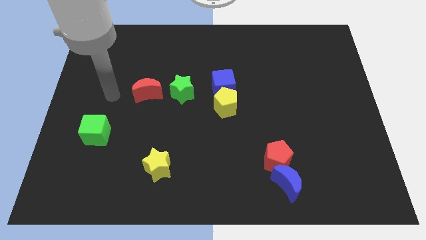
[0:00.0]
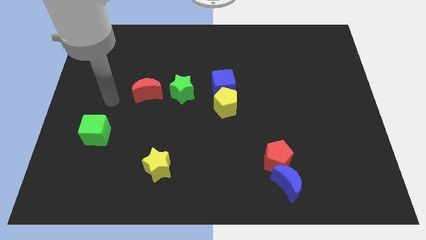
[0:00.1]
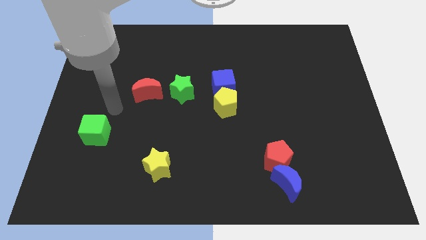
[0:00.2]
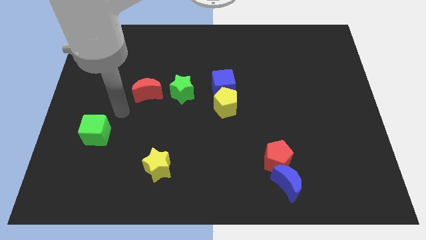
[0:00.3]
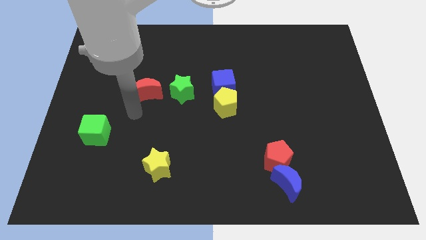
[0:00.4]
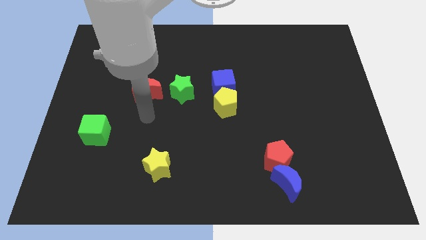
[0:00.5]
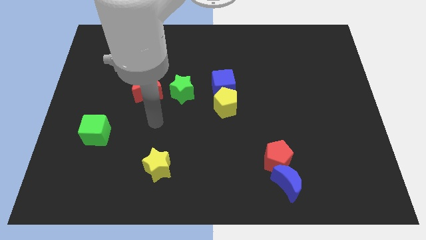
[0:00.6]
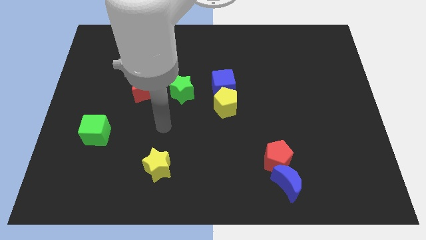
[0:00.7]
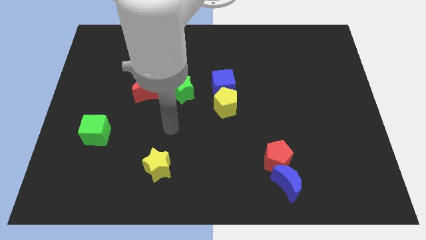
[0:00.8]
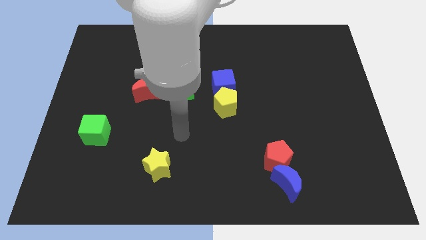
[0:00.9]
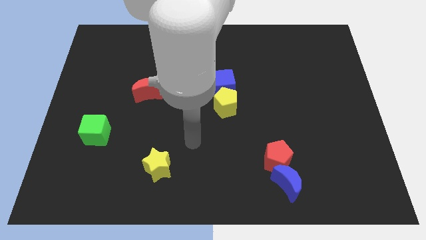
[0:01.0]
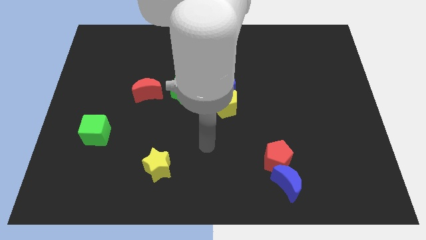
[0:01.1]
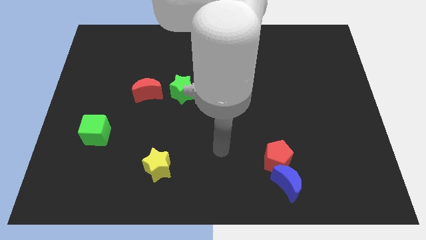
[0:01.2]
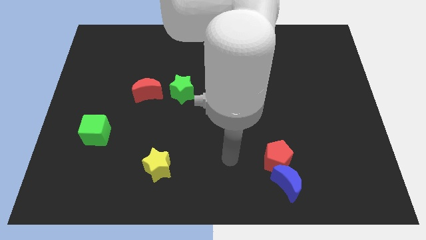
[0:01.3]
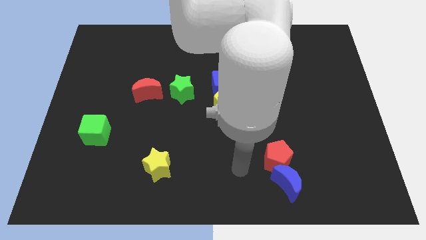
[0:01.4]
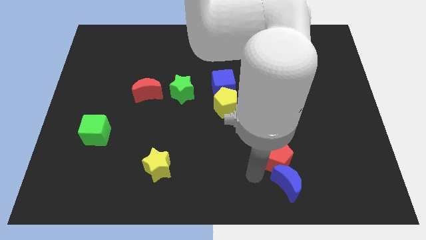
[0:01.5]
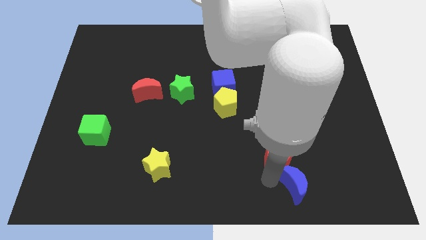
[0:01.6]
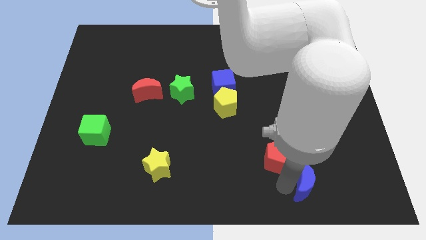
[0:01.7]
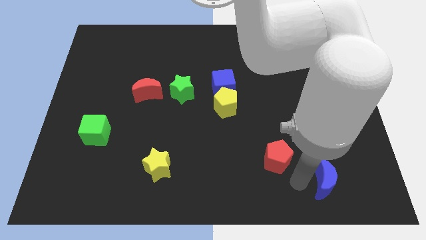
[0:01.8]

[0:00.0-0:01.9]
move the red pentagon away from the blue moon

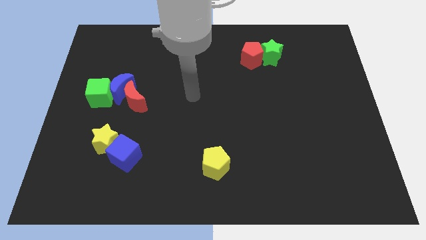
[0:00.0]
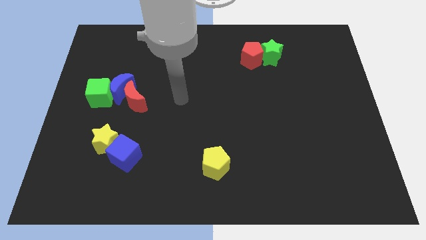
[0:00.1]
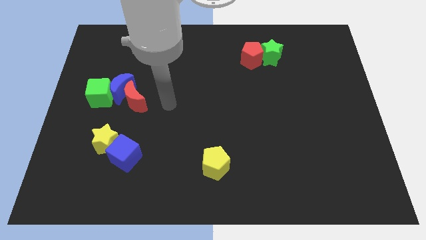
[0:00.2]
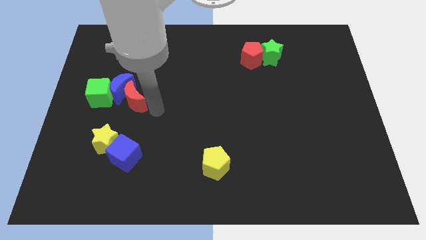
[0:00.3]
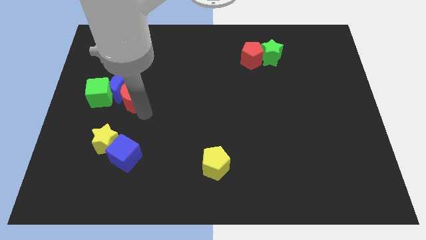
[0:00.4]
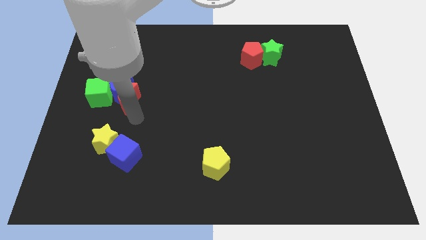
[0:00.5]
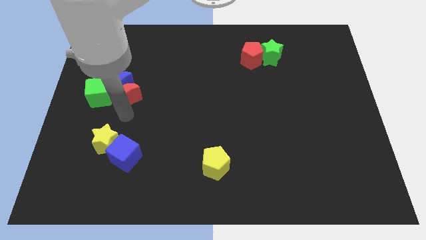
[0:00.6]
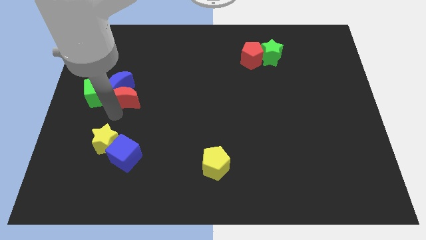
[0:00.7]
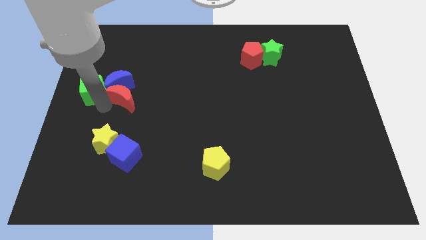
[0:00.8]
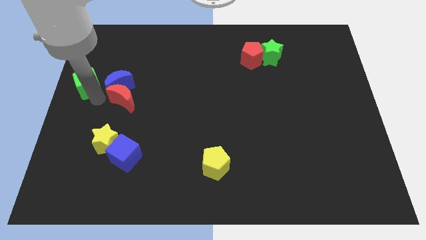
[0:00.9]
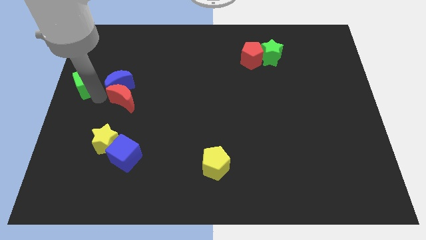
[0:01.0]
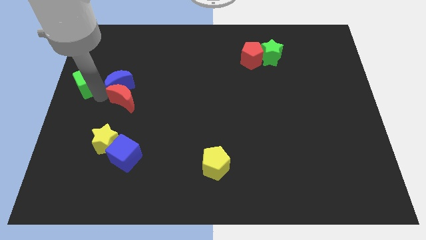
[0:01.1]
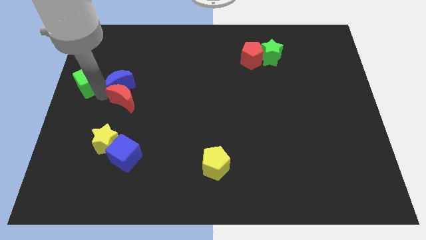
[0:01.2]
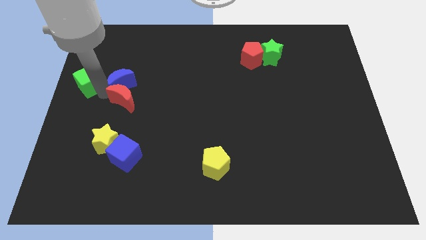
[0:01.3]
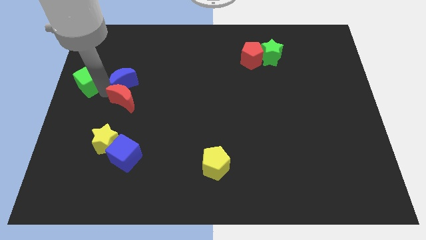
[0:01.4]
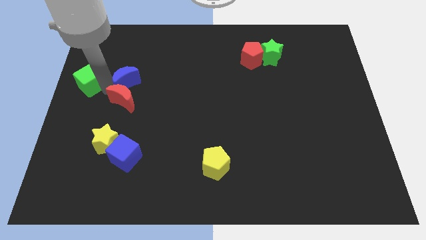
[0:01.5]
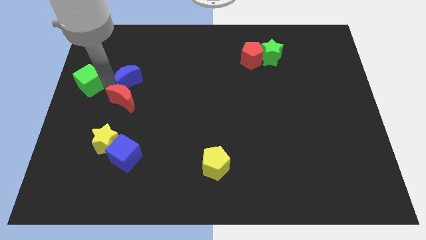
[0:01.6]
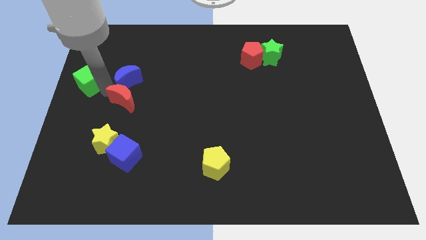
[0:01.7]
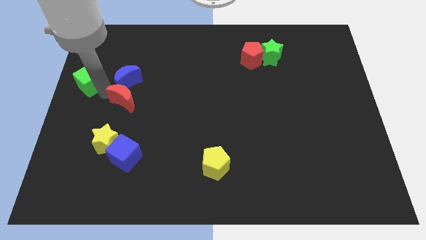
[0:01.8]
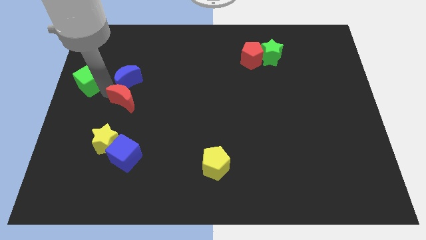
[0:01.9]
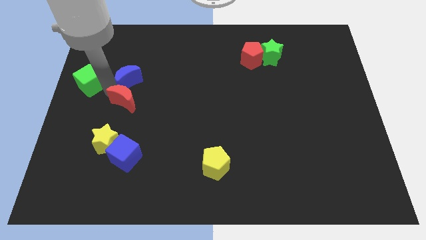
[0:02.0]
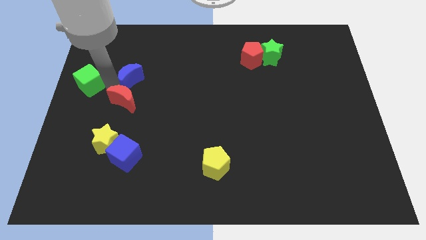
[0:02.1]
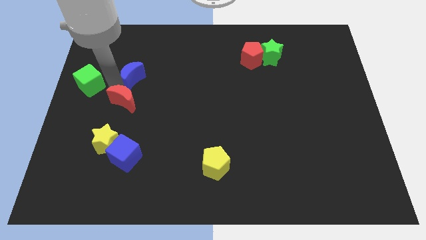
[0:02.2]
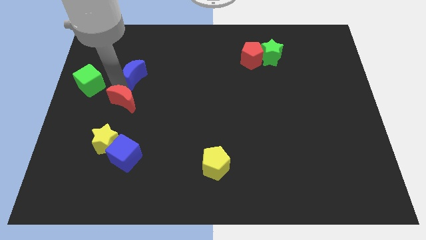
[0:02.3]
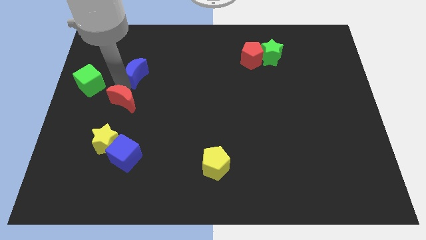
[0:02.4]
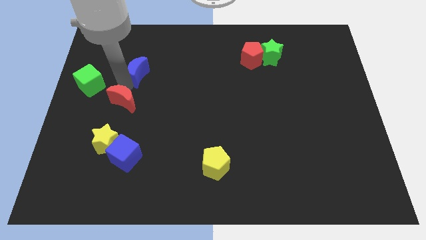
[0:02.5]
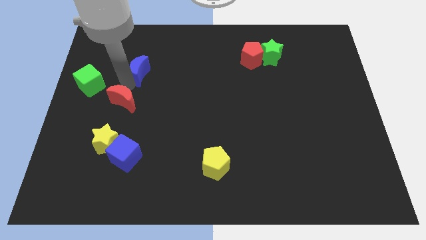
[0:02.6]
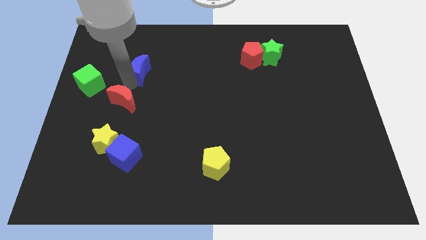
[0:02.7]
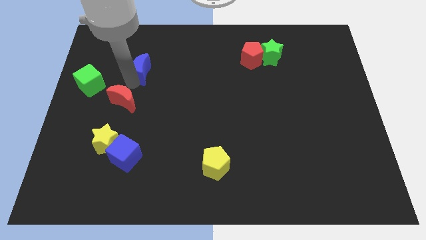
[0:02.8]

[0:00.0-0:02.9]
separate the blue moon from the red moon and green cube

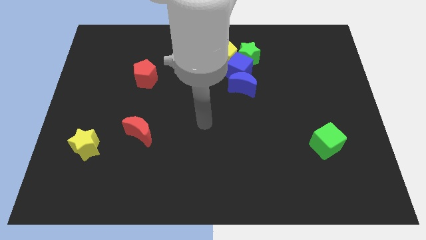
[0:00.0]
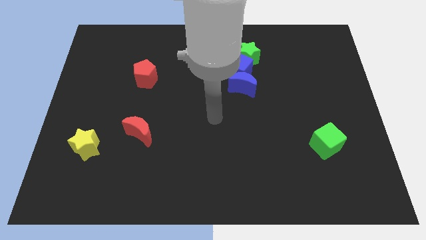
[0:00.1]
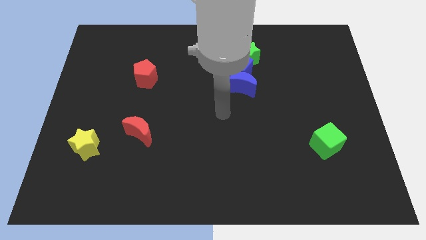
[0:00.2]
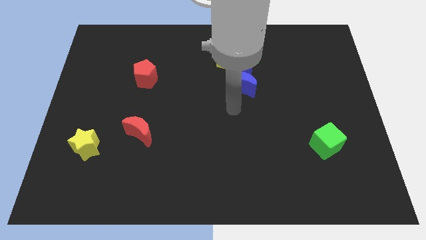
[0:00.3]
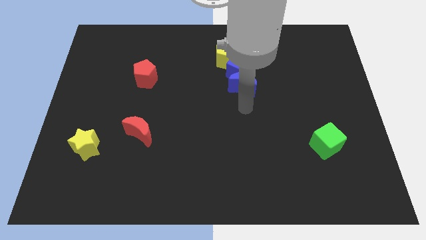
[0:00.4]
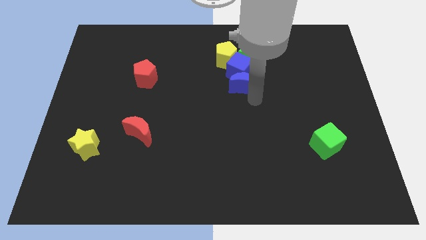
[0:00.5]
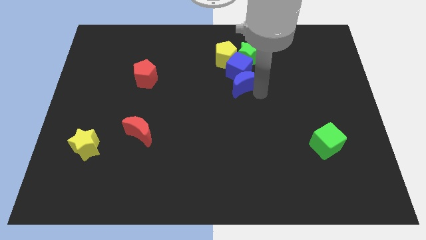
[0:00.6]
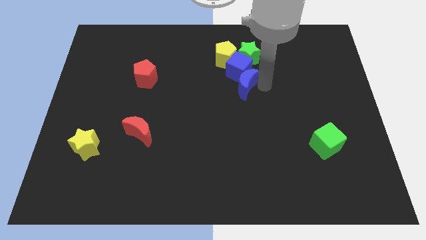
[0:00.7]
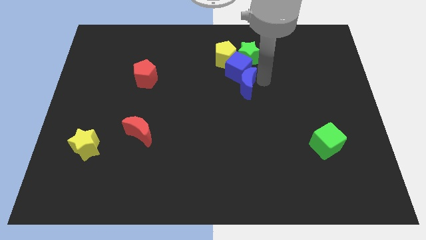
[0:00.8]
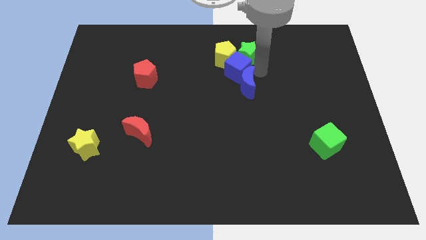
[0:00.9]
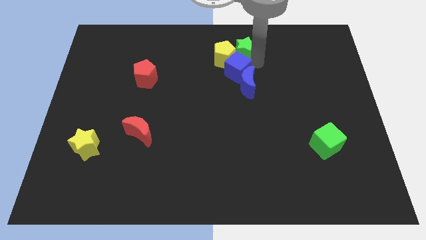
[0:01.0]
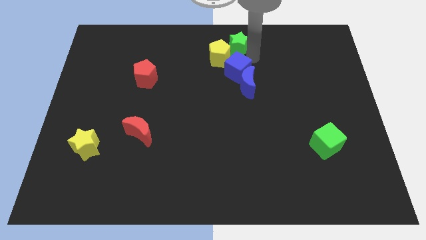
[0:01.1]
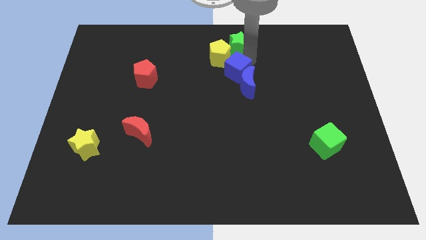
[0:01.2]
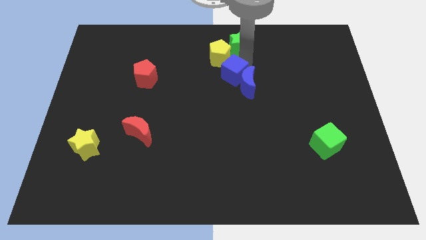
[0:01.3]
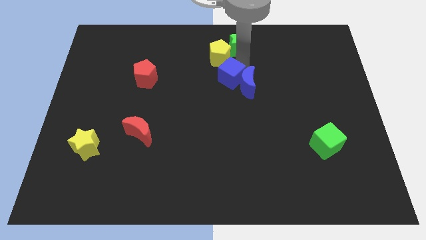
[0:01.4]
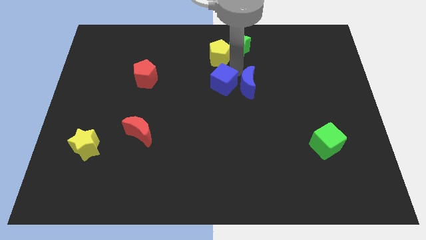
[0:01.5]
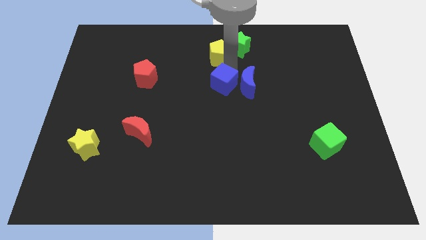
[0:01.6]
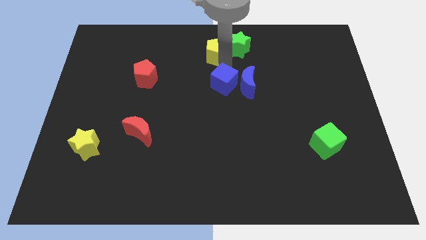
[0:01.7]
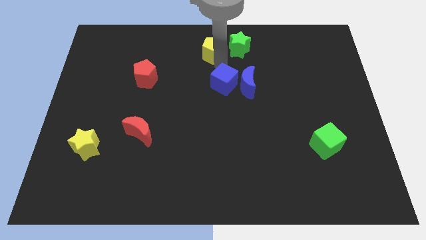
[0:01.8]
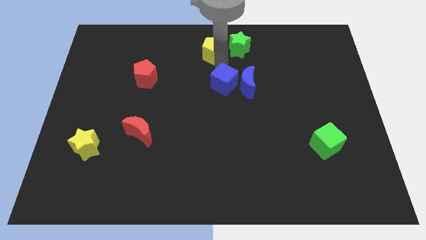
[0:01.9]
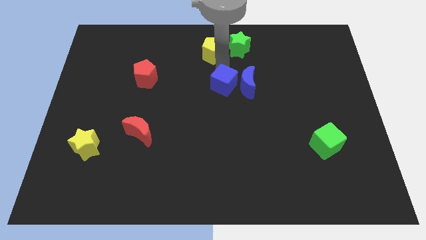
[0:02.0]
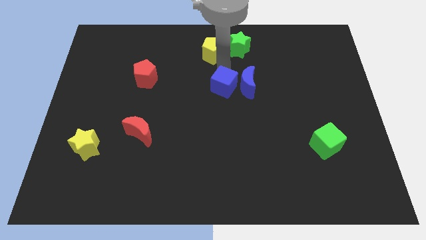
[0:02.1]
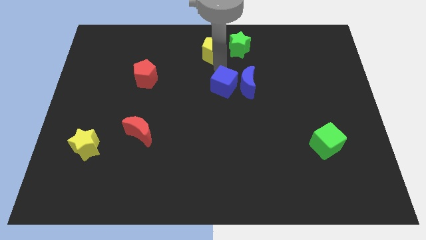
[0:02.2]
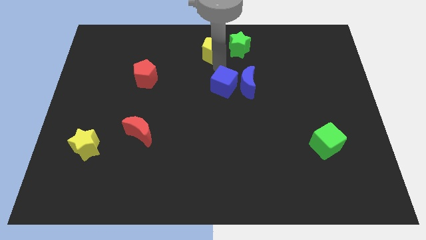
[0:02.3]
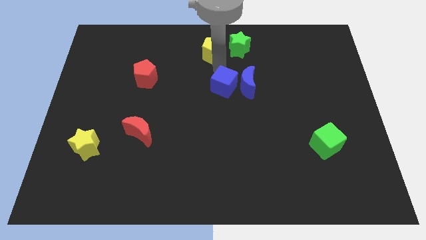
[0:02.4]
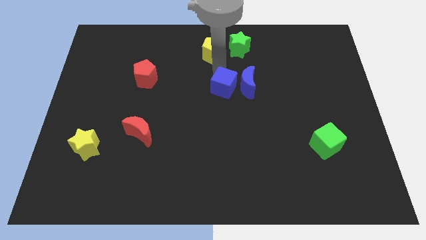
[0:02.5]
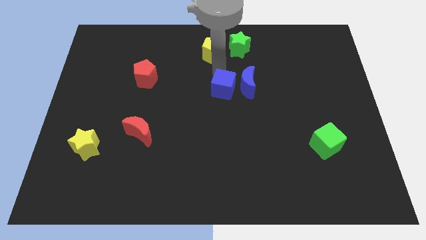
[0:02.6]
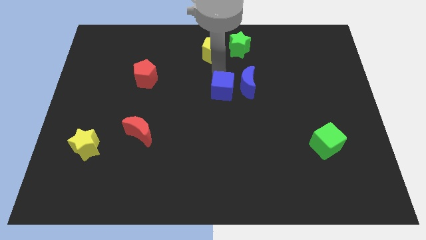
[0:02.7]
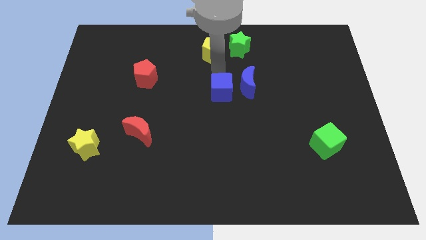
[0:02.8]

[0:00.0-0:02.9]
move the blue cube away from the group of blocks

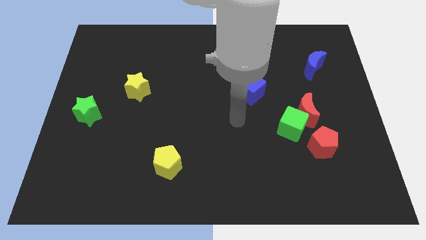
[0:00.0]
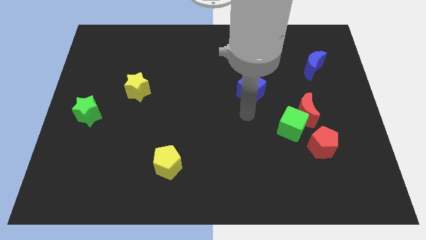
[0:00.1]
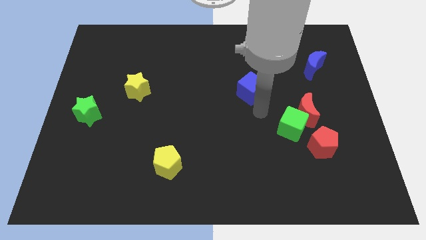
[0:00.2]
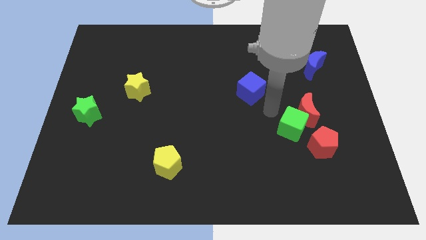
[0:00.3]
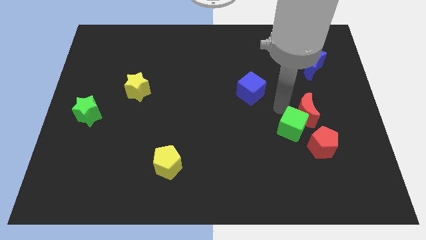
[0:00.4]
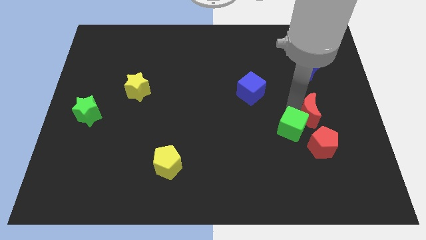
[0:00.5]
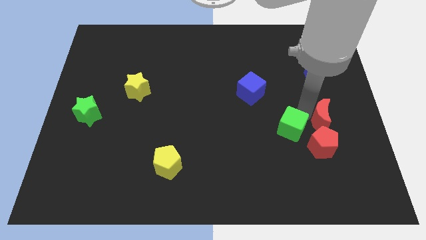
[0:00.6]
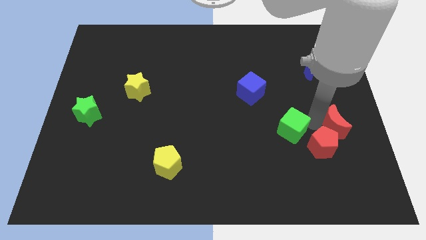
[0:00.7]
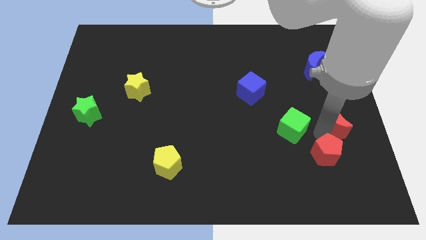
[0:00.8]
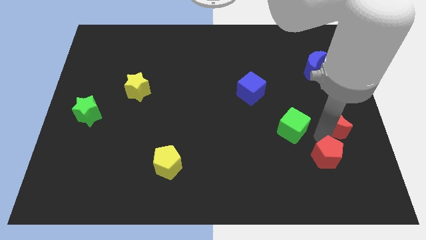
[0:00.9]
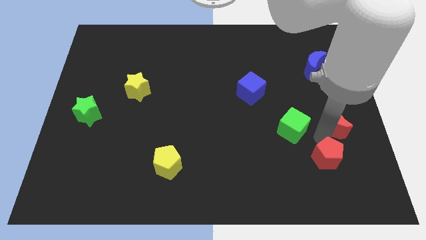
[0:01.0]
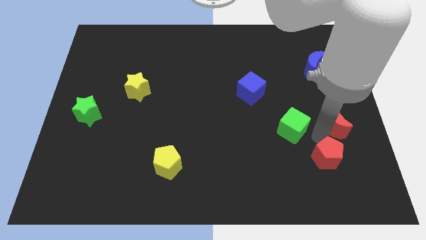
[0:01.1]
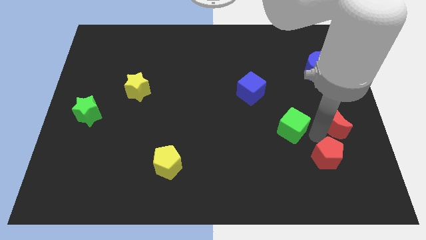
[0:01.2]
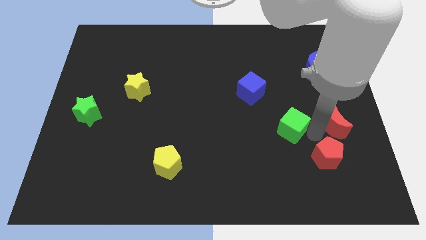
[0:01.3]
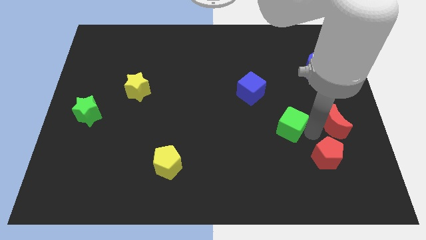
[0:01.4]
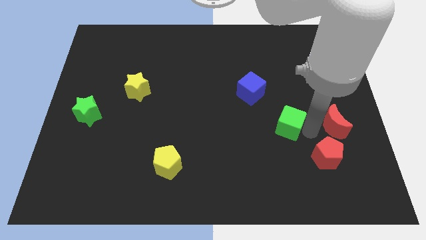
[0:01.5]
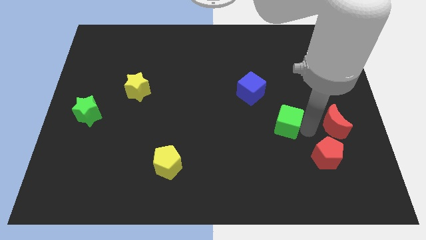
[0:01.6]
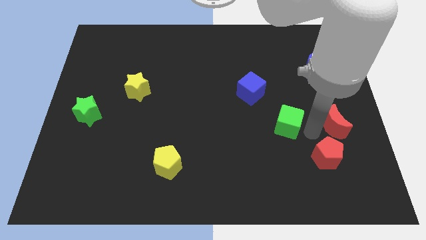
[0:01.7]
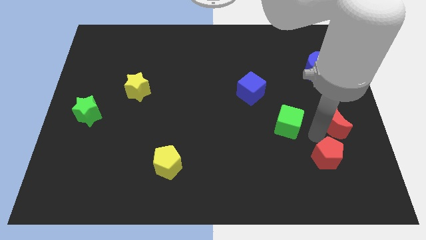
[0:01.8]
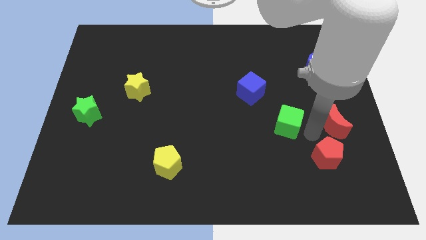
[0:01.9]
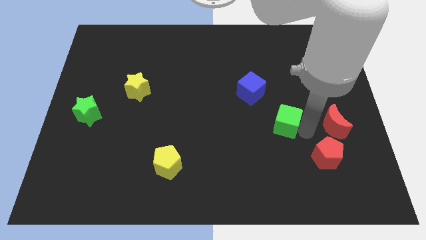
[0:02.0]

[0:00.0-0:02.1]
separate the green cube from the red moon and red pentagon
